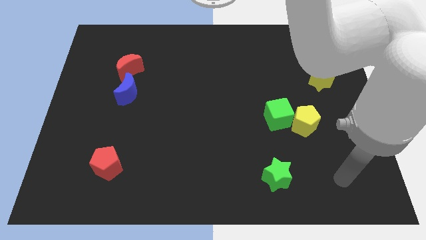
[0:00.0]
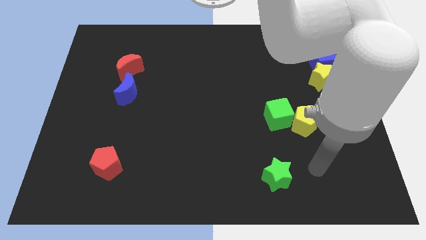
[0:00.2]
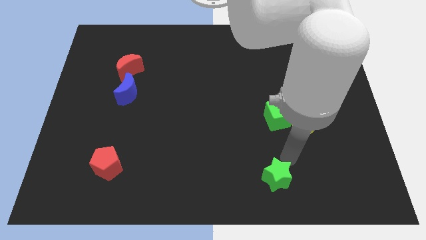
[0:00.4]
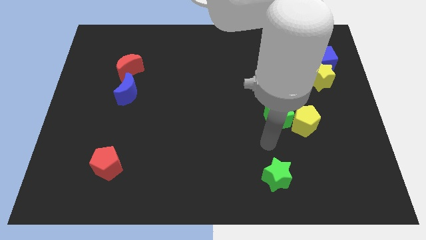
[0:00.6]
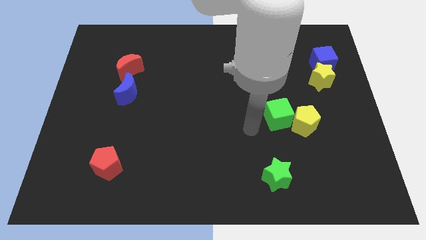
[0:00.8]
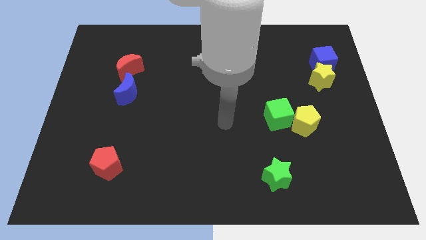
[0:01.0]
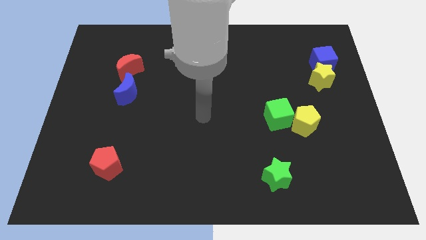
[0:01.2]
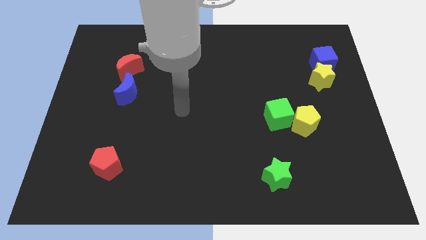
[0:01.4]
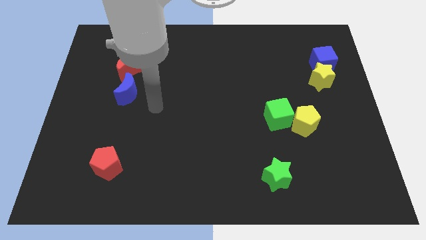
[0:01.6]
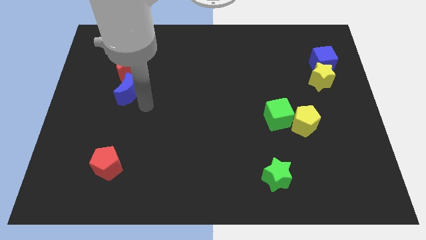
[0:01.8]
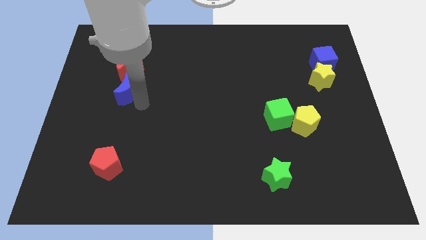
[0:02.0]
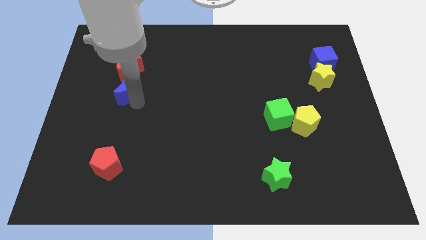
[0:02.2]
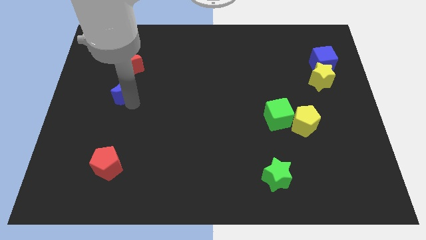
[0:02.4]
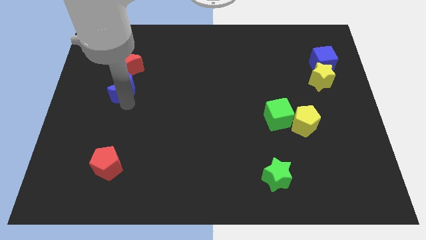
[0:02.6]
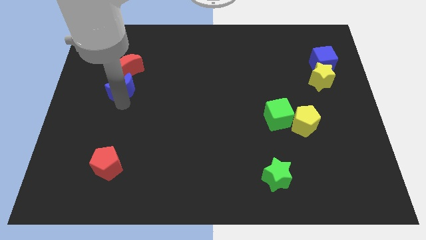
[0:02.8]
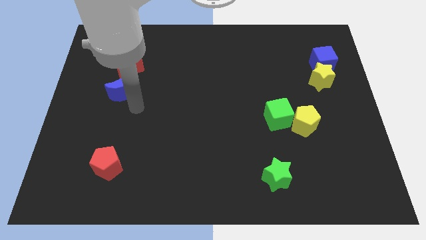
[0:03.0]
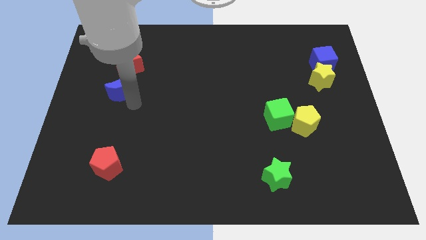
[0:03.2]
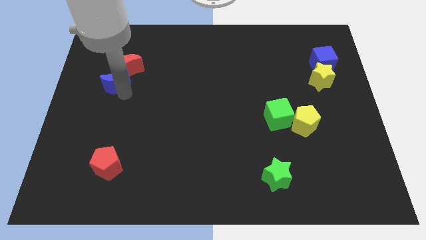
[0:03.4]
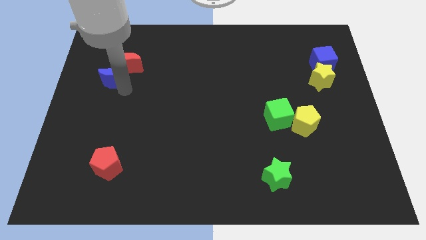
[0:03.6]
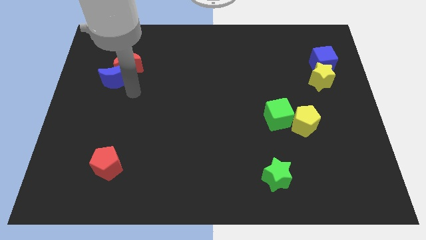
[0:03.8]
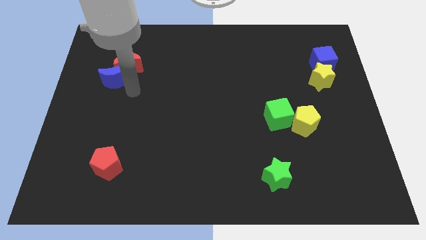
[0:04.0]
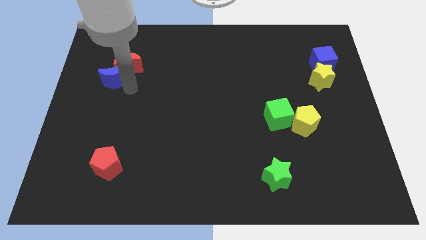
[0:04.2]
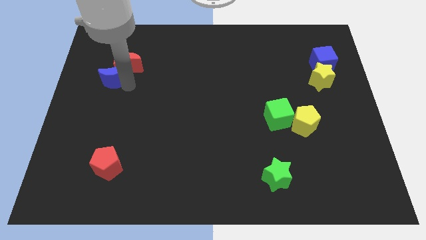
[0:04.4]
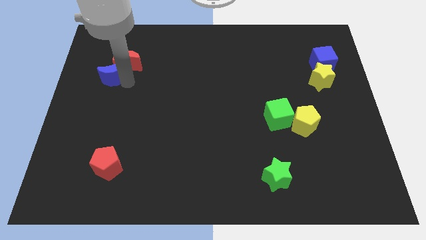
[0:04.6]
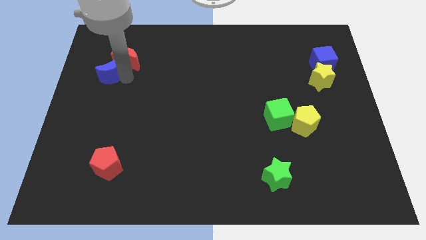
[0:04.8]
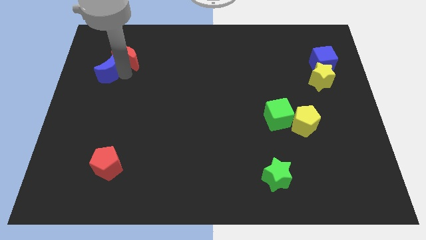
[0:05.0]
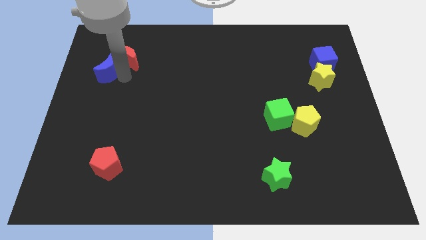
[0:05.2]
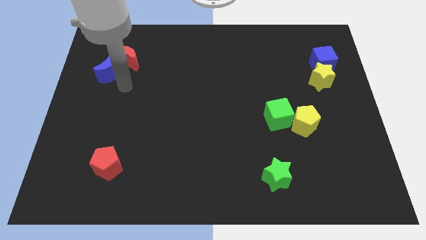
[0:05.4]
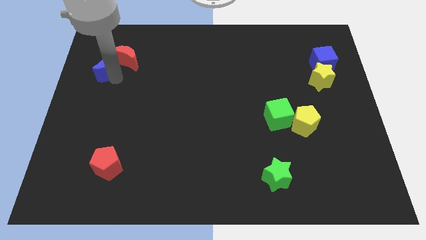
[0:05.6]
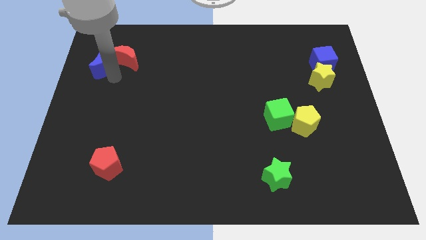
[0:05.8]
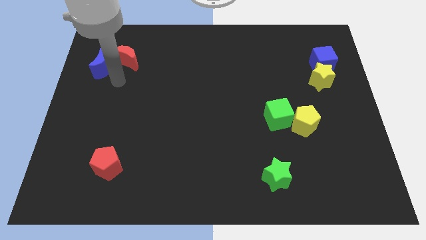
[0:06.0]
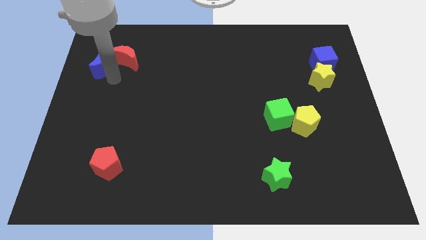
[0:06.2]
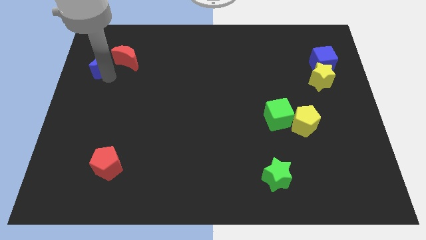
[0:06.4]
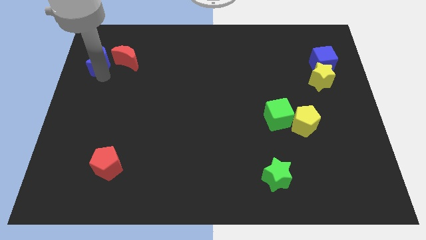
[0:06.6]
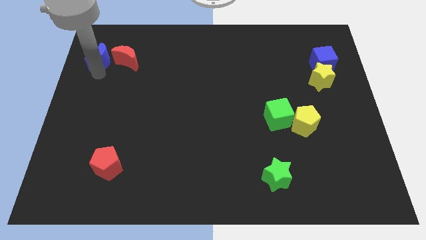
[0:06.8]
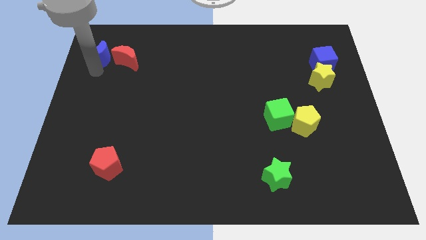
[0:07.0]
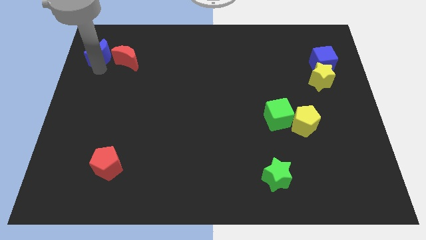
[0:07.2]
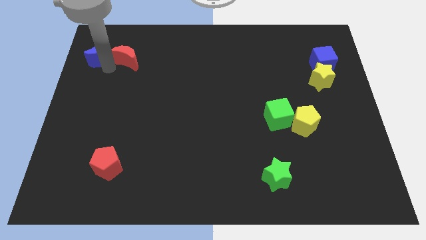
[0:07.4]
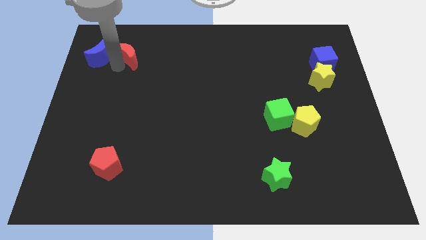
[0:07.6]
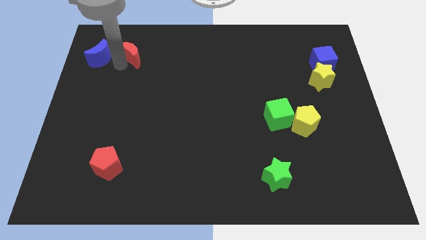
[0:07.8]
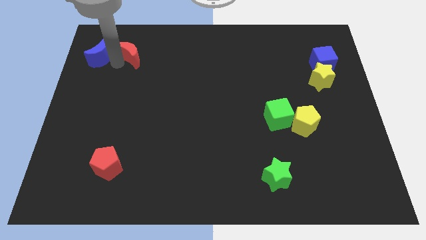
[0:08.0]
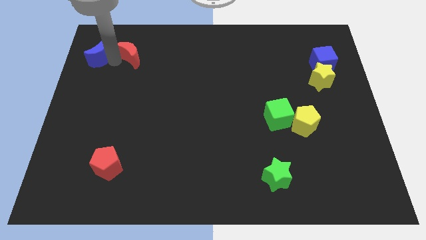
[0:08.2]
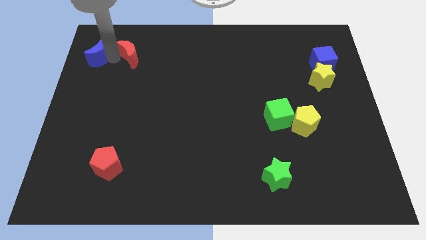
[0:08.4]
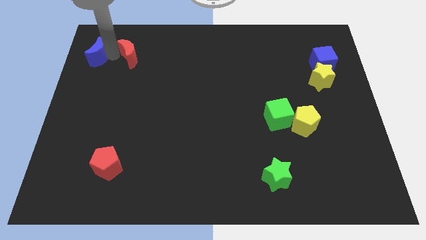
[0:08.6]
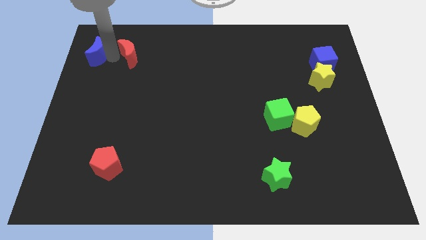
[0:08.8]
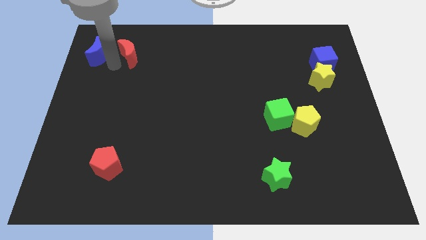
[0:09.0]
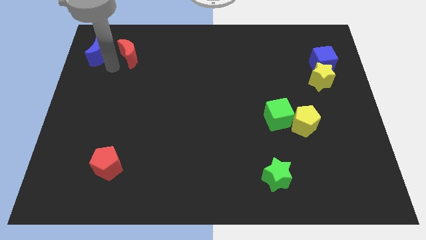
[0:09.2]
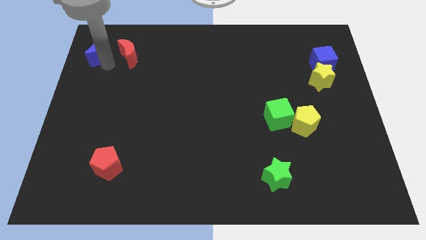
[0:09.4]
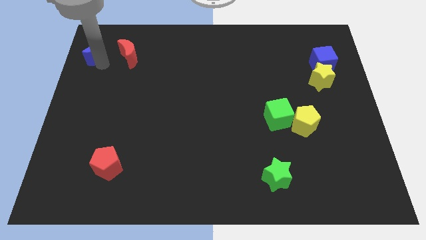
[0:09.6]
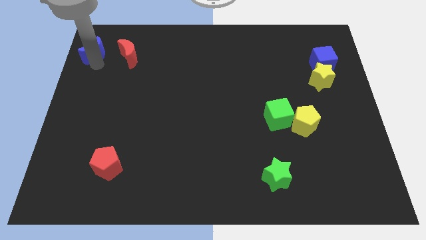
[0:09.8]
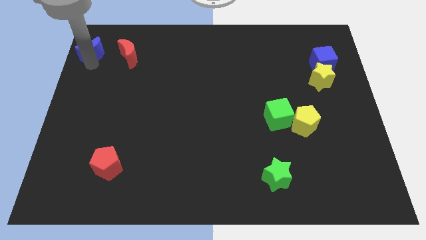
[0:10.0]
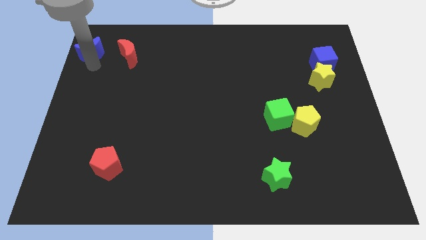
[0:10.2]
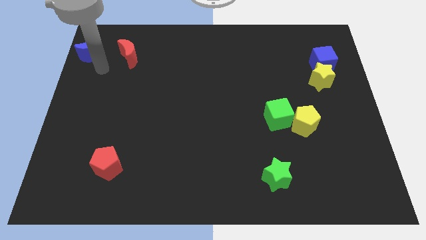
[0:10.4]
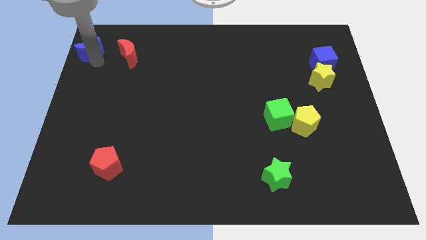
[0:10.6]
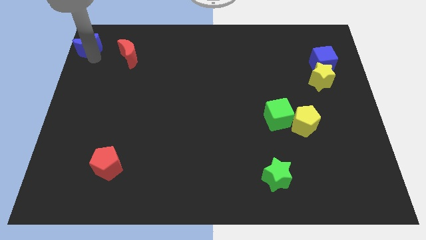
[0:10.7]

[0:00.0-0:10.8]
move the blue moon to the top left
